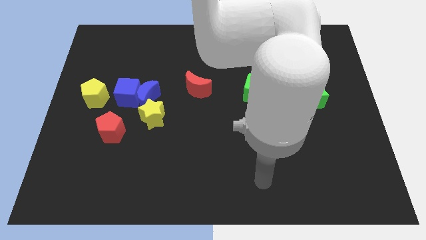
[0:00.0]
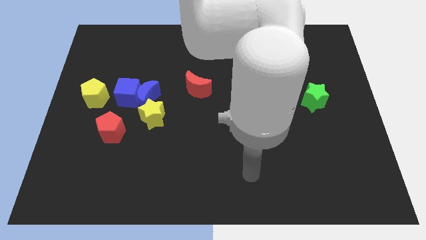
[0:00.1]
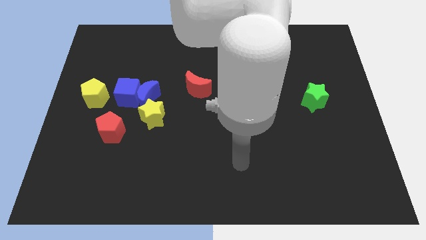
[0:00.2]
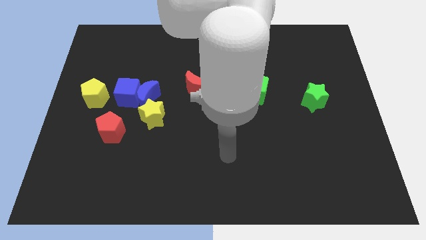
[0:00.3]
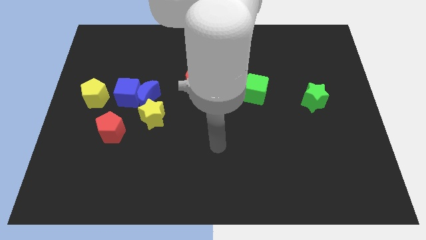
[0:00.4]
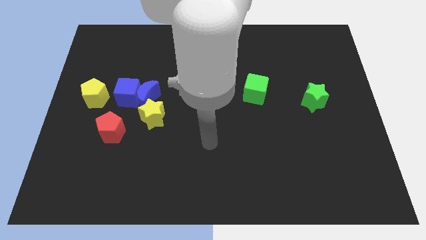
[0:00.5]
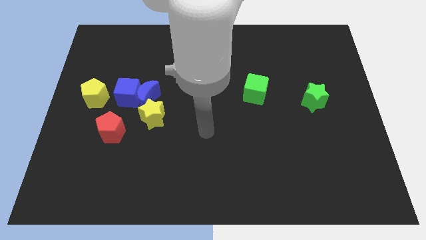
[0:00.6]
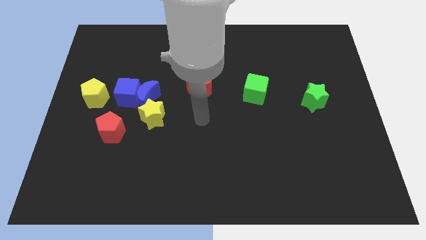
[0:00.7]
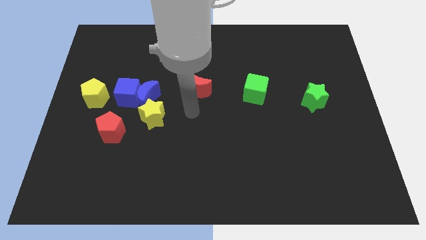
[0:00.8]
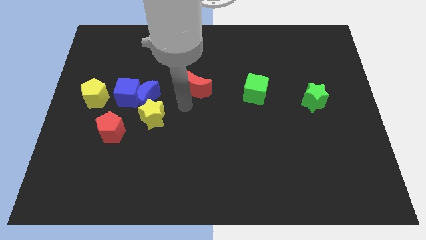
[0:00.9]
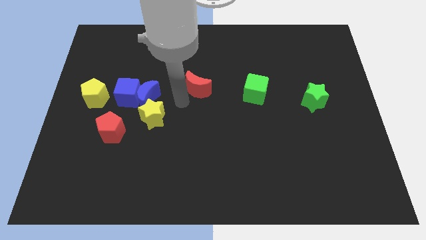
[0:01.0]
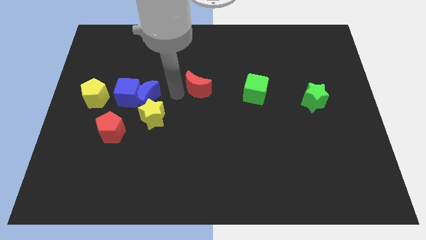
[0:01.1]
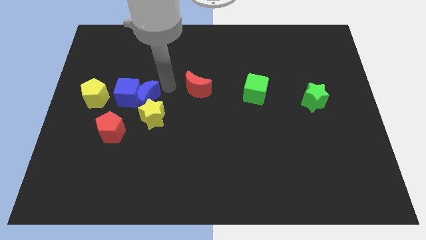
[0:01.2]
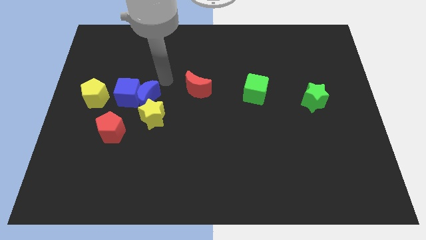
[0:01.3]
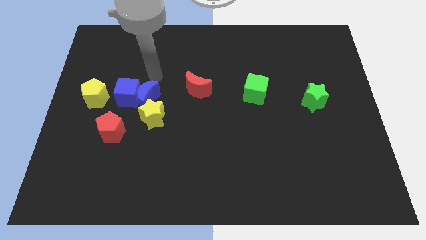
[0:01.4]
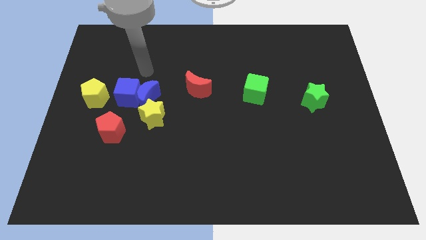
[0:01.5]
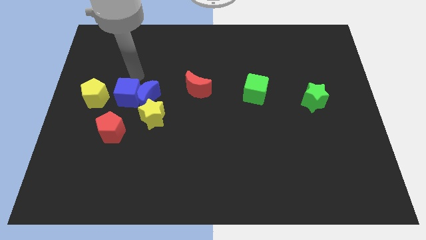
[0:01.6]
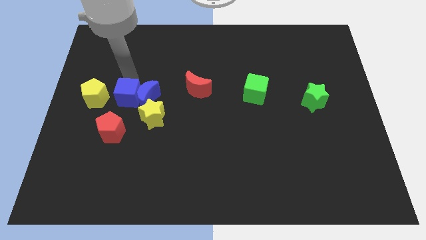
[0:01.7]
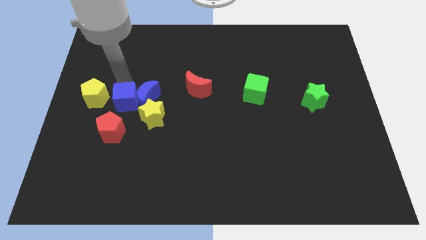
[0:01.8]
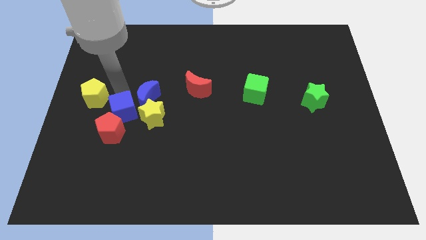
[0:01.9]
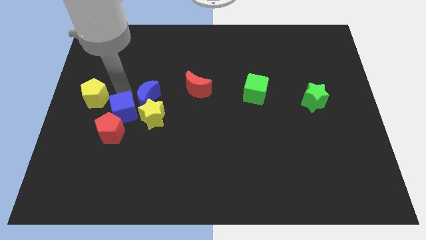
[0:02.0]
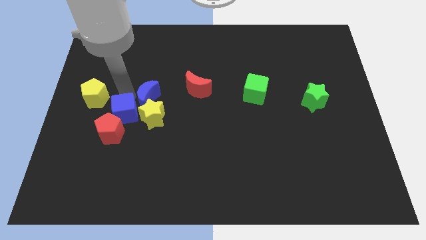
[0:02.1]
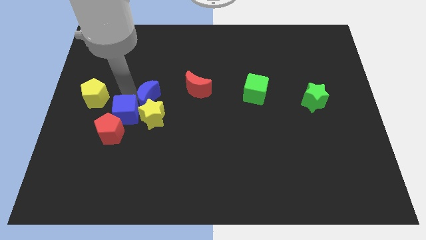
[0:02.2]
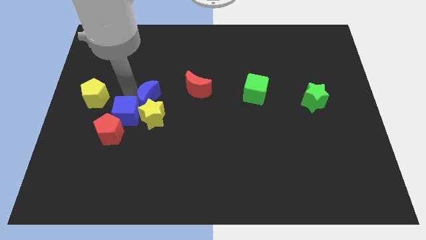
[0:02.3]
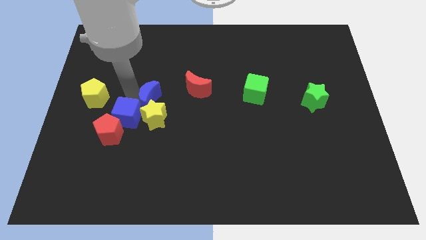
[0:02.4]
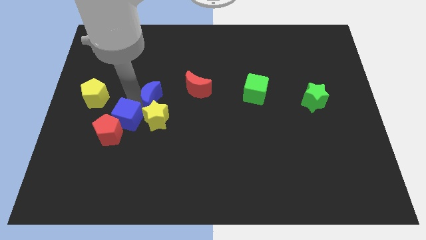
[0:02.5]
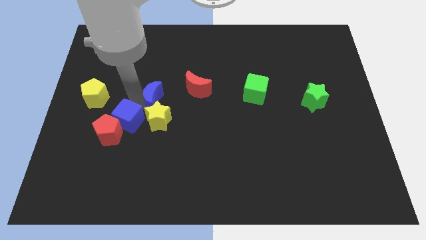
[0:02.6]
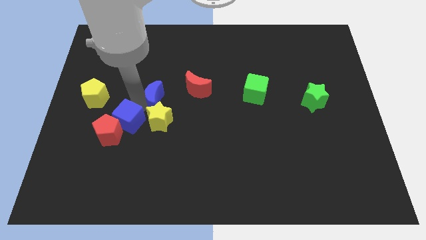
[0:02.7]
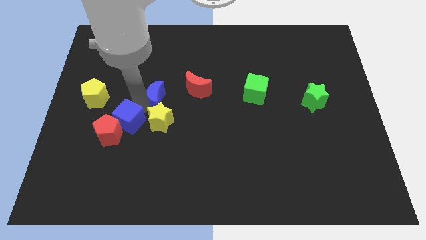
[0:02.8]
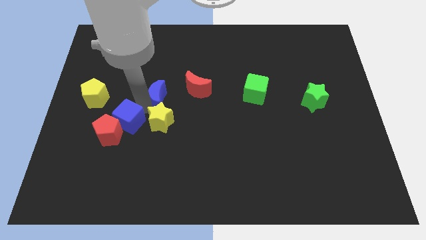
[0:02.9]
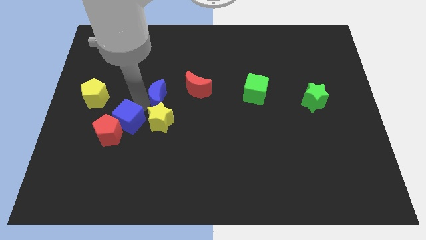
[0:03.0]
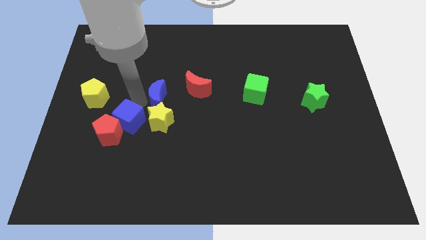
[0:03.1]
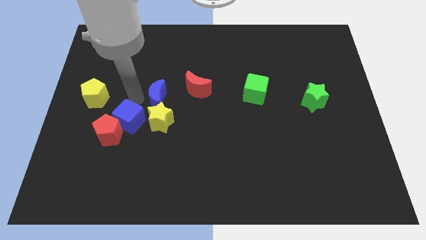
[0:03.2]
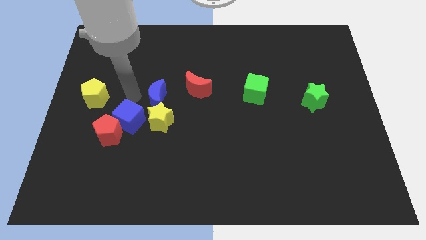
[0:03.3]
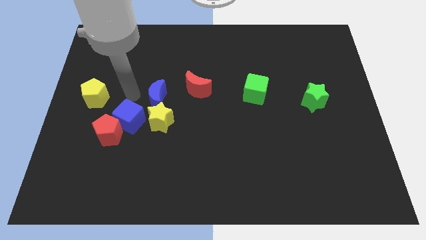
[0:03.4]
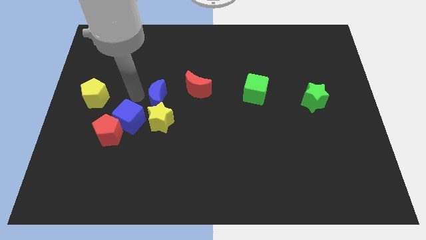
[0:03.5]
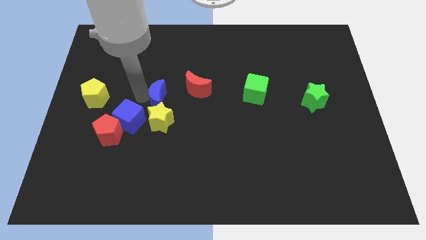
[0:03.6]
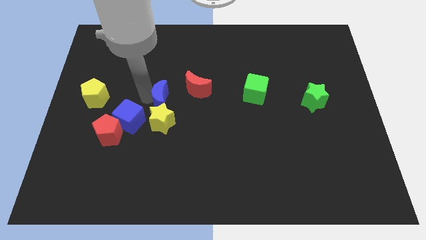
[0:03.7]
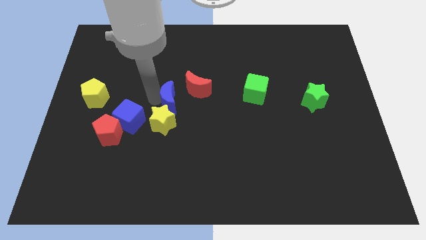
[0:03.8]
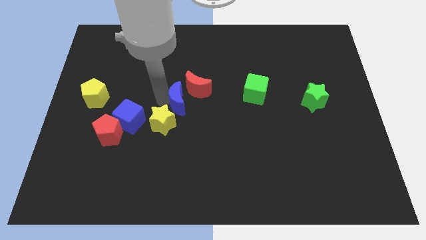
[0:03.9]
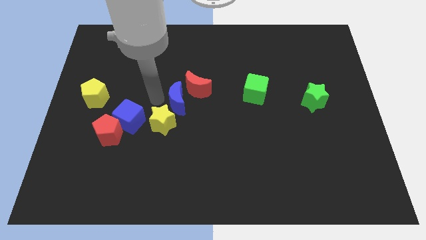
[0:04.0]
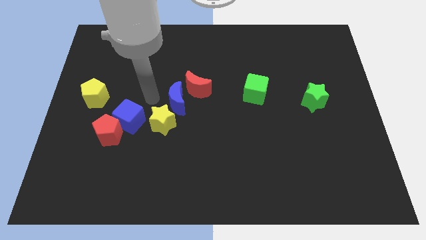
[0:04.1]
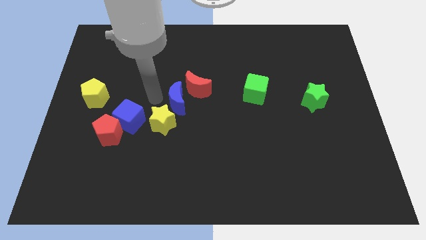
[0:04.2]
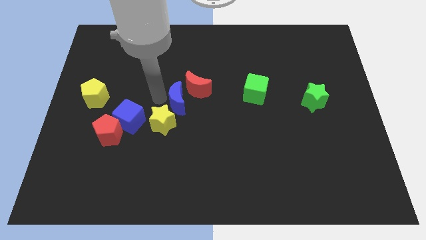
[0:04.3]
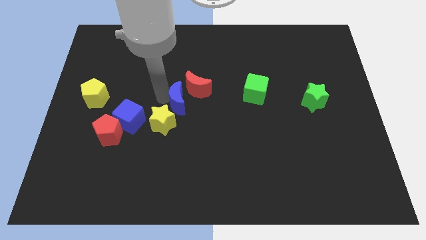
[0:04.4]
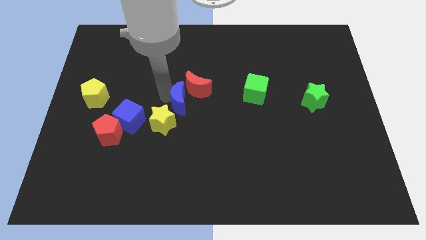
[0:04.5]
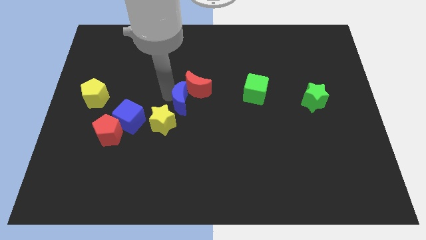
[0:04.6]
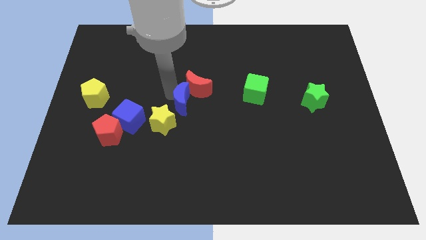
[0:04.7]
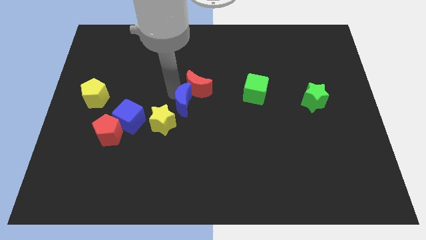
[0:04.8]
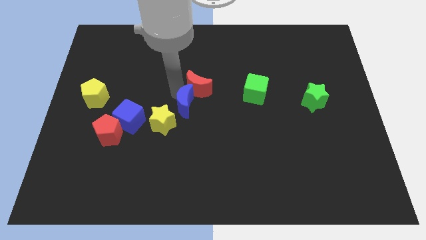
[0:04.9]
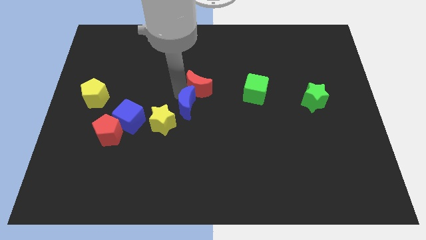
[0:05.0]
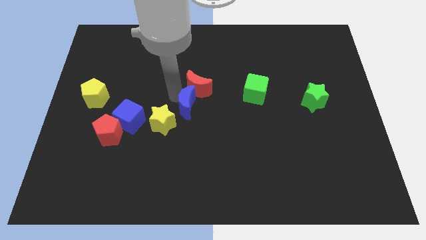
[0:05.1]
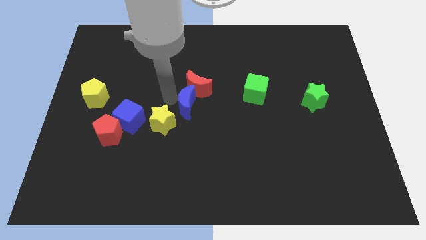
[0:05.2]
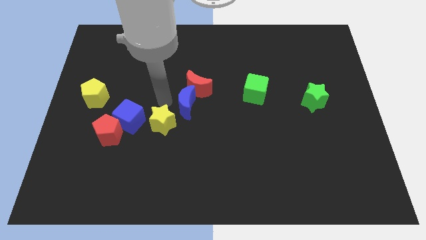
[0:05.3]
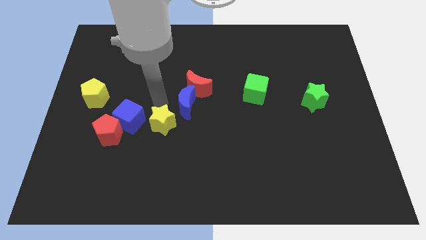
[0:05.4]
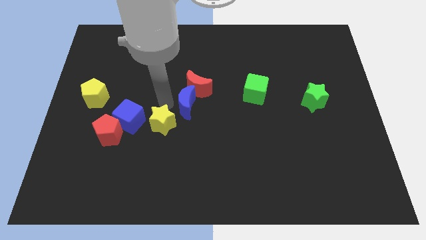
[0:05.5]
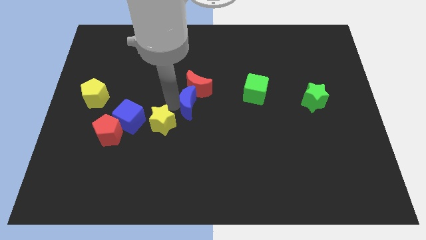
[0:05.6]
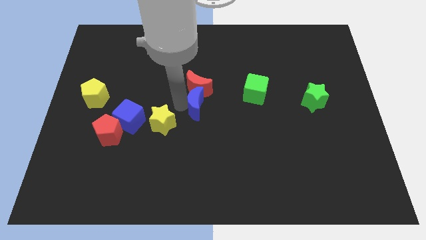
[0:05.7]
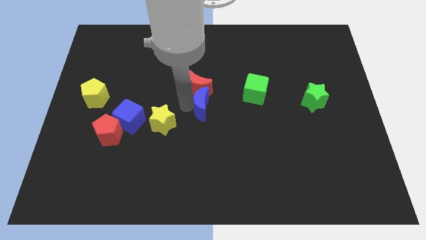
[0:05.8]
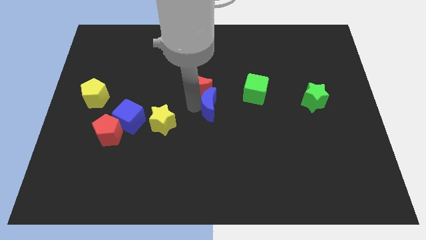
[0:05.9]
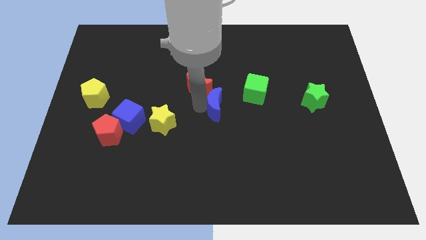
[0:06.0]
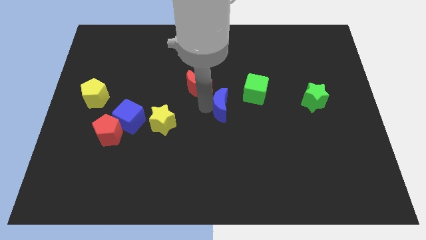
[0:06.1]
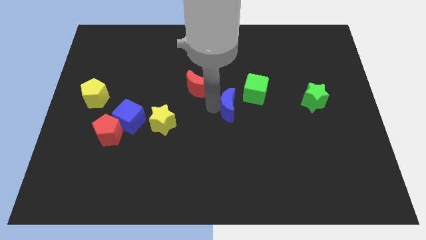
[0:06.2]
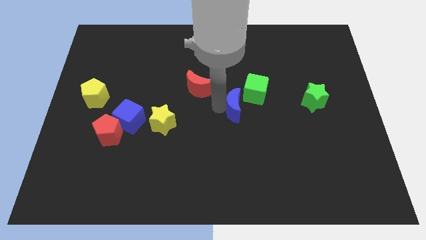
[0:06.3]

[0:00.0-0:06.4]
push the blue moon right

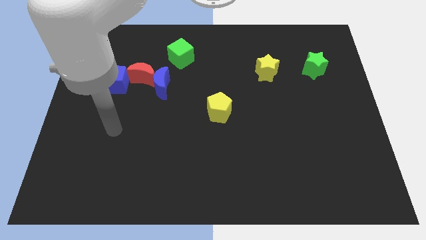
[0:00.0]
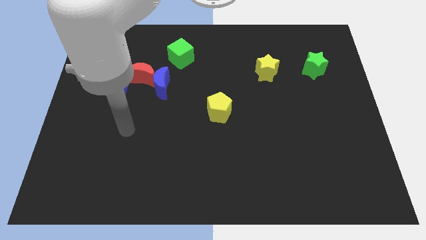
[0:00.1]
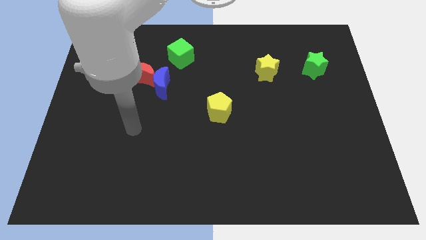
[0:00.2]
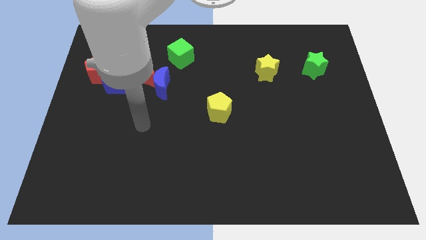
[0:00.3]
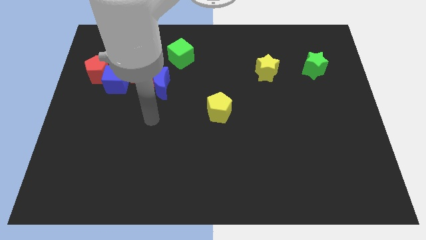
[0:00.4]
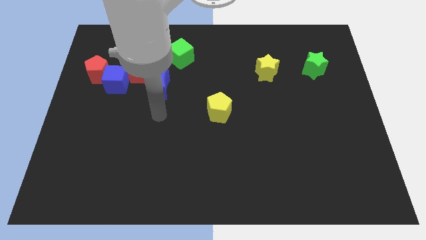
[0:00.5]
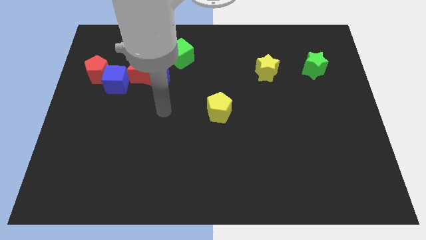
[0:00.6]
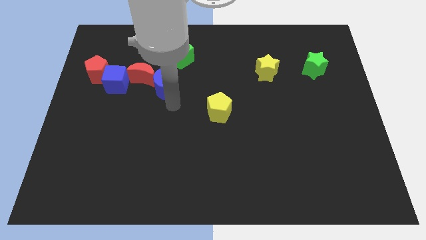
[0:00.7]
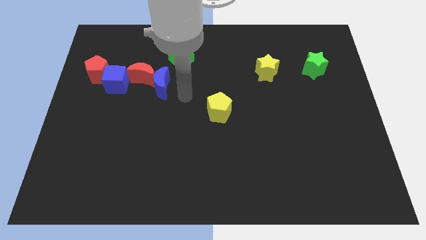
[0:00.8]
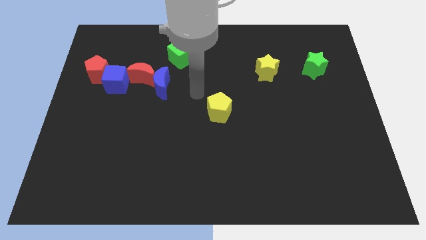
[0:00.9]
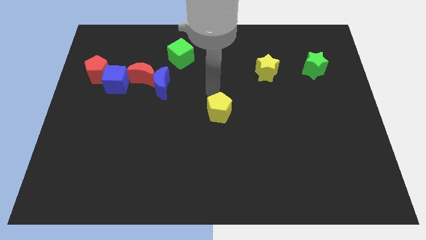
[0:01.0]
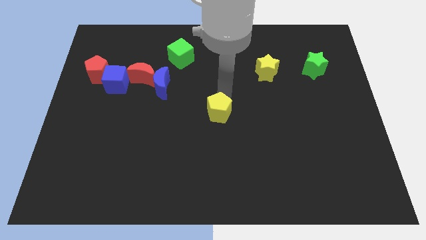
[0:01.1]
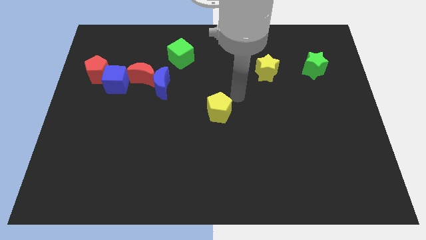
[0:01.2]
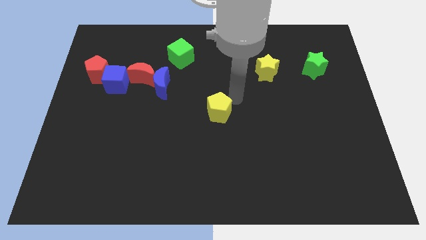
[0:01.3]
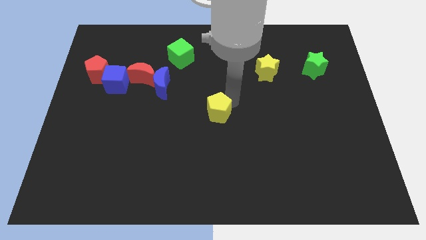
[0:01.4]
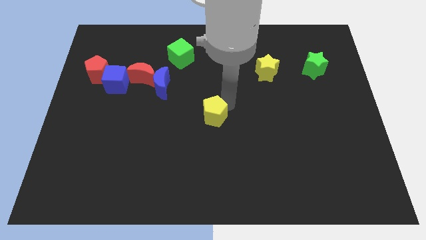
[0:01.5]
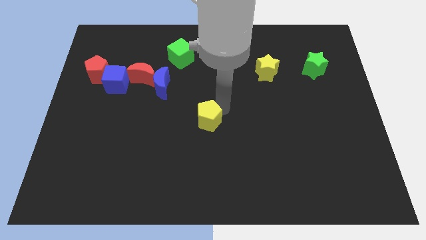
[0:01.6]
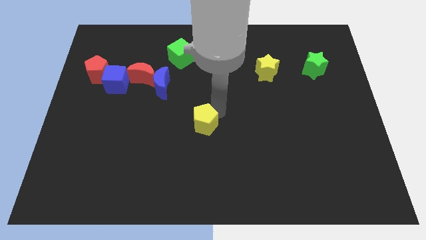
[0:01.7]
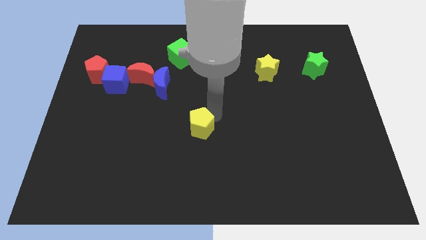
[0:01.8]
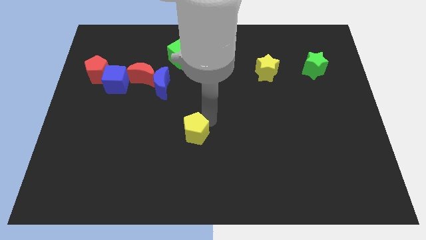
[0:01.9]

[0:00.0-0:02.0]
move the yellow pentagon a little downwards and left
